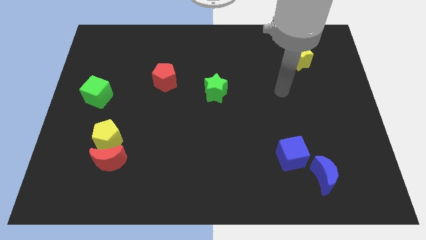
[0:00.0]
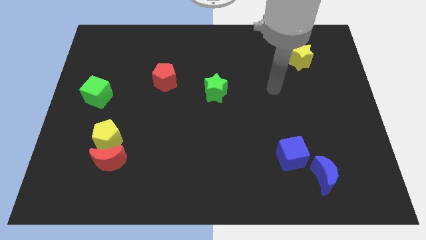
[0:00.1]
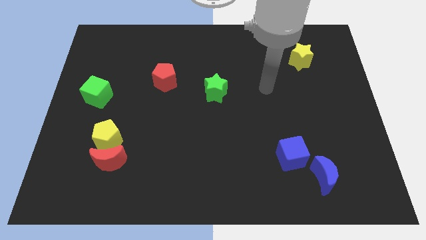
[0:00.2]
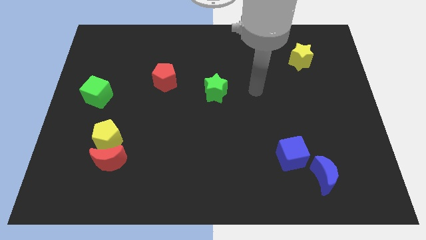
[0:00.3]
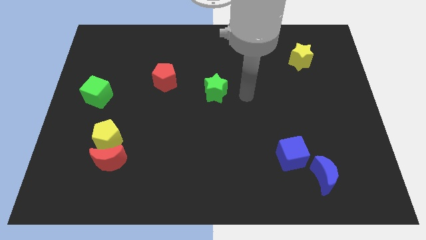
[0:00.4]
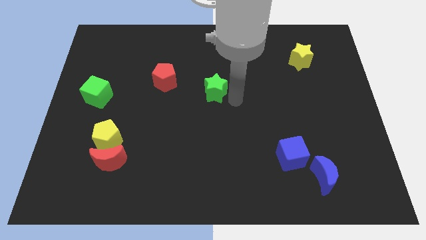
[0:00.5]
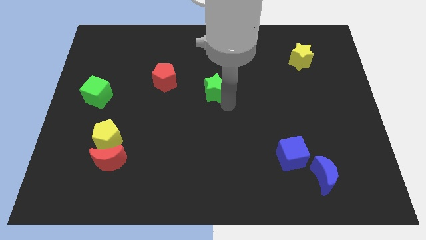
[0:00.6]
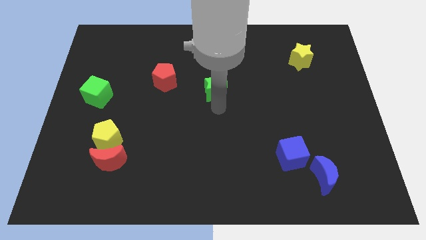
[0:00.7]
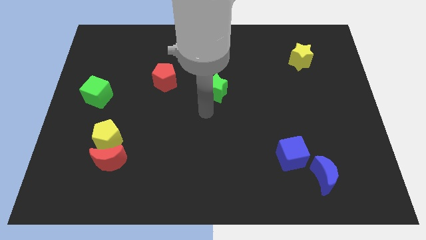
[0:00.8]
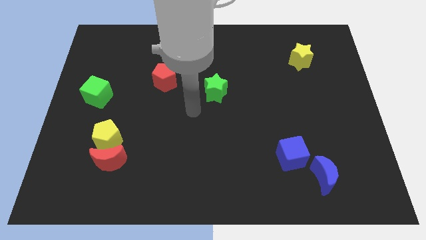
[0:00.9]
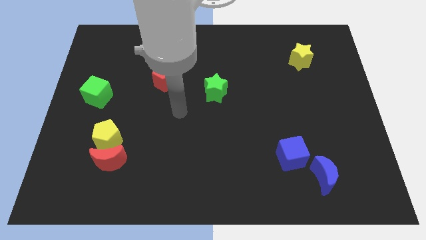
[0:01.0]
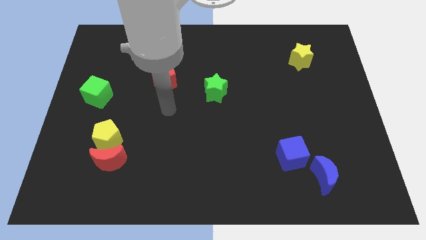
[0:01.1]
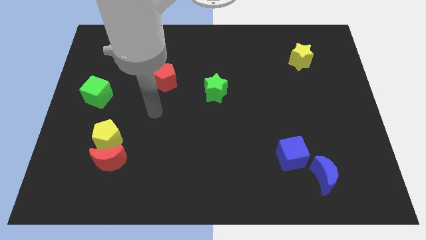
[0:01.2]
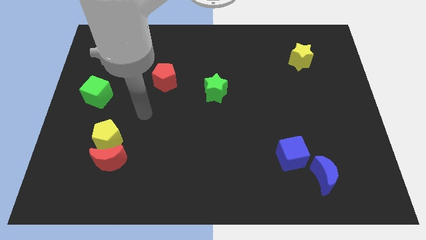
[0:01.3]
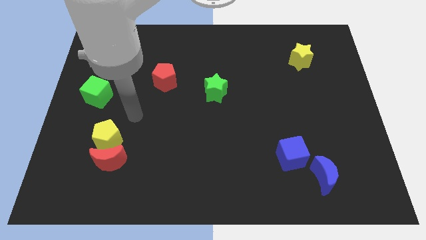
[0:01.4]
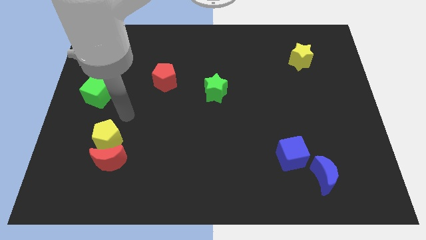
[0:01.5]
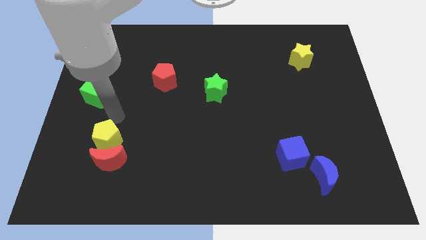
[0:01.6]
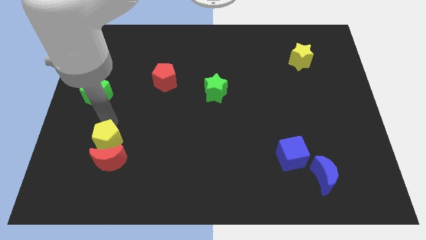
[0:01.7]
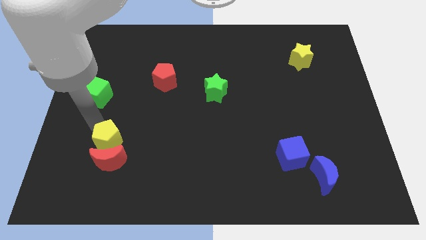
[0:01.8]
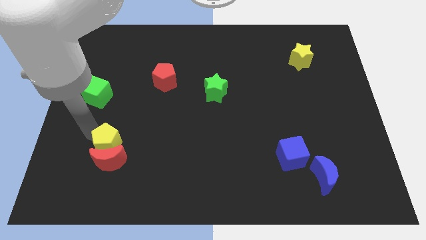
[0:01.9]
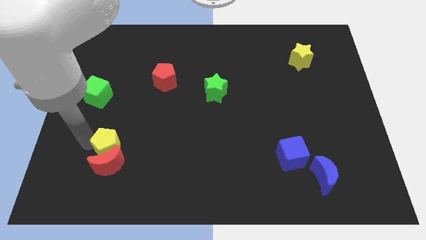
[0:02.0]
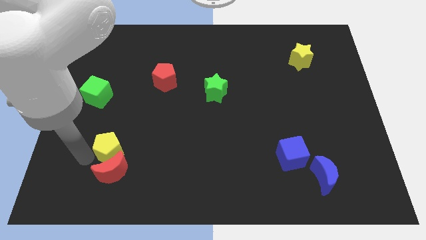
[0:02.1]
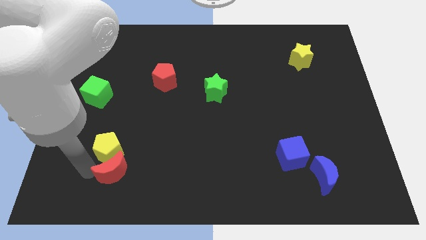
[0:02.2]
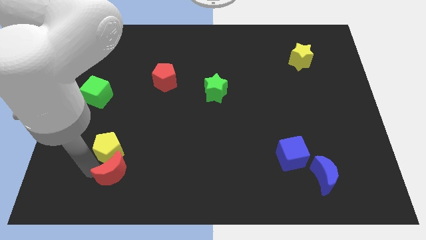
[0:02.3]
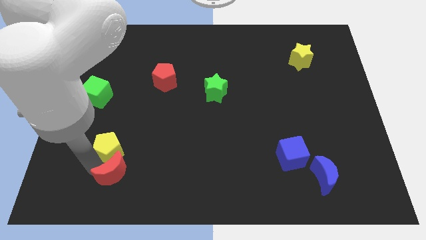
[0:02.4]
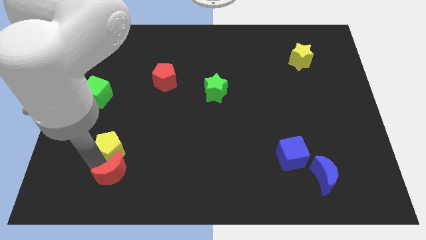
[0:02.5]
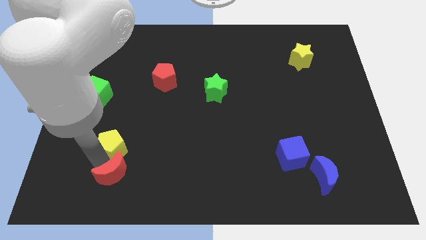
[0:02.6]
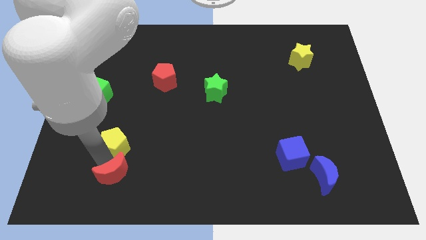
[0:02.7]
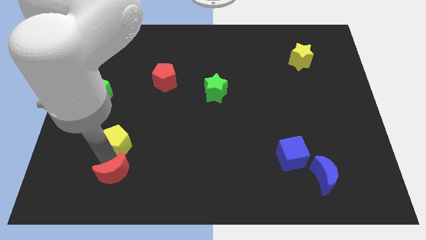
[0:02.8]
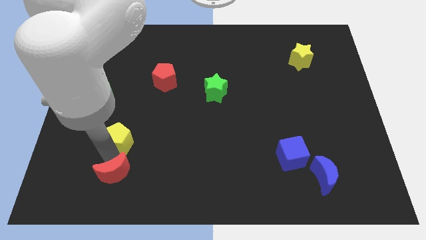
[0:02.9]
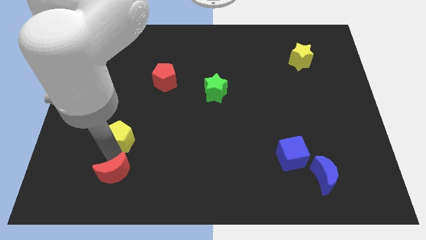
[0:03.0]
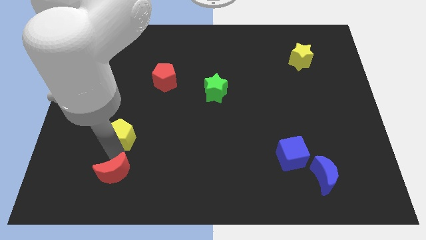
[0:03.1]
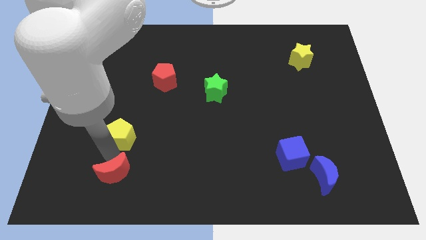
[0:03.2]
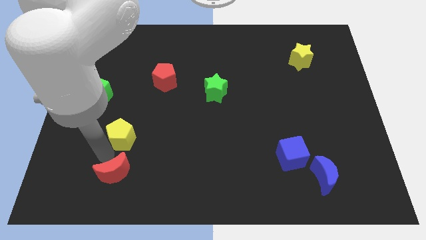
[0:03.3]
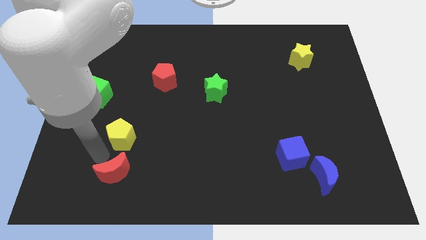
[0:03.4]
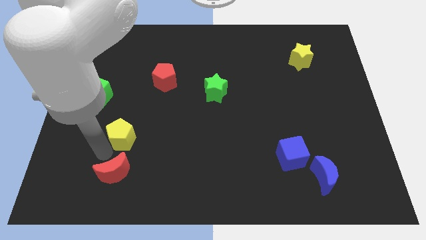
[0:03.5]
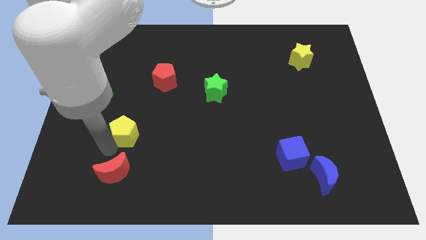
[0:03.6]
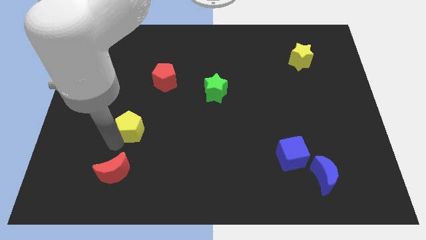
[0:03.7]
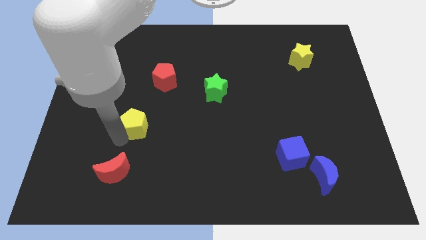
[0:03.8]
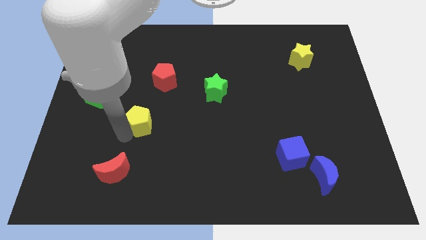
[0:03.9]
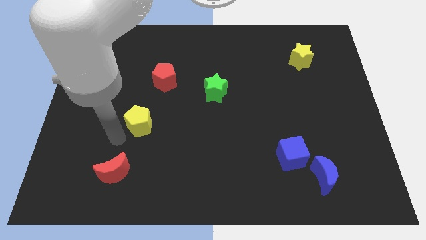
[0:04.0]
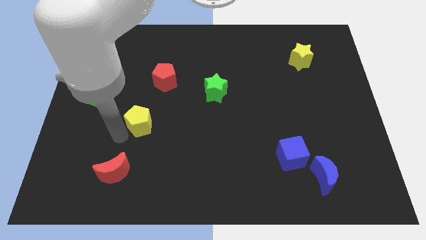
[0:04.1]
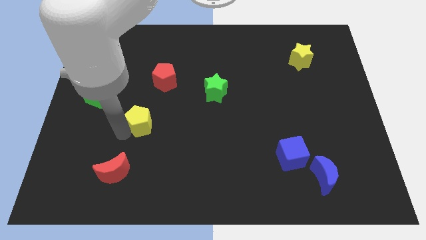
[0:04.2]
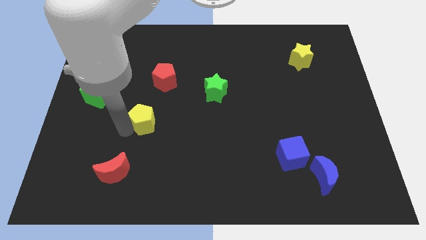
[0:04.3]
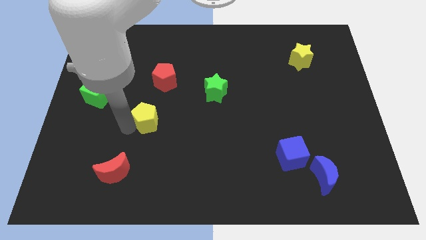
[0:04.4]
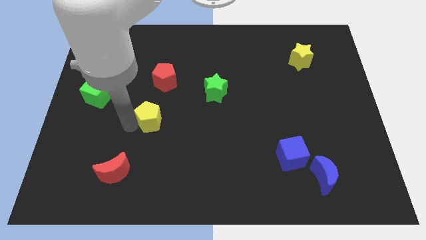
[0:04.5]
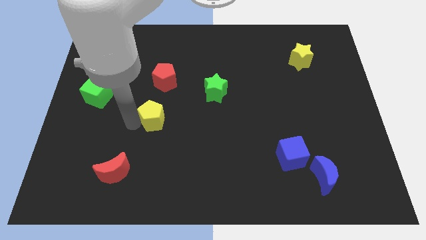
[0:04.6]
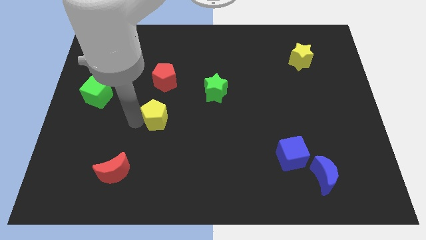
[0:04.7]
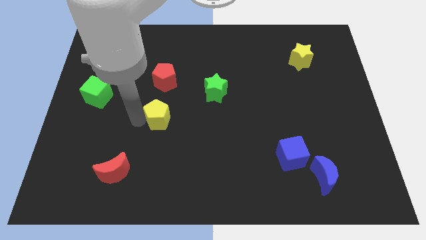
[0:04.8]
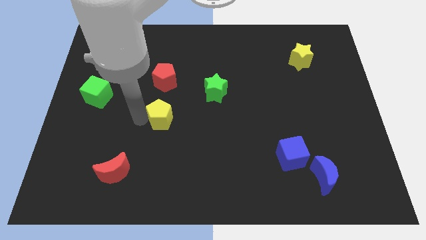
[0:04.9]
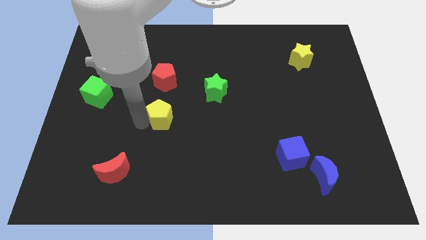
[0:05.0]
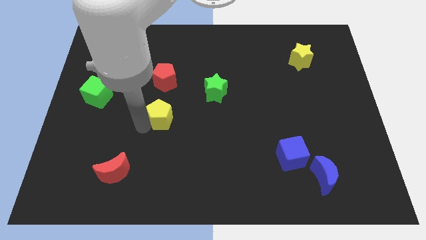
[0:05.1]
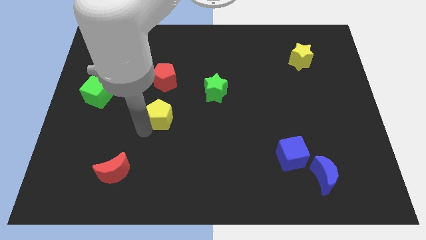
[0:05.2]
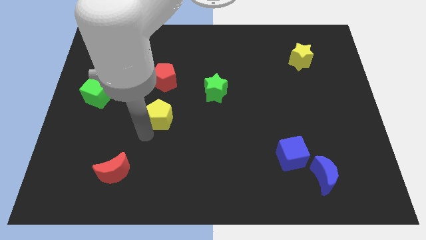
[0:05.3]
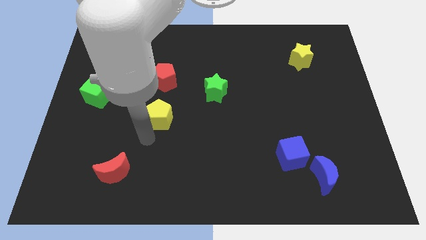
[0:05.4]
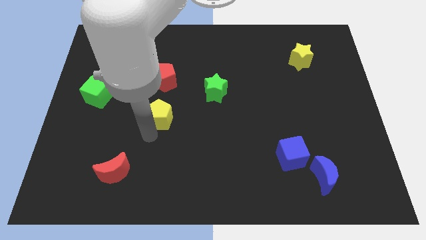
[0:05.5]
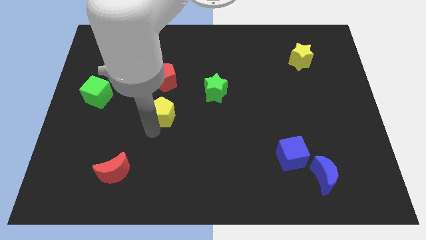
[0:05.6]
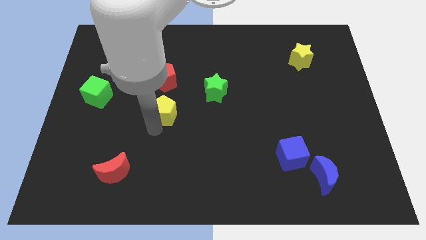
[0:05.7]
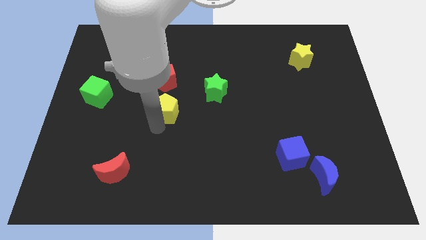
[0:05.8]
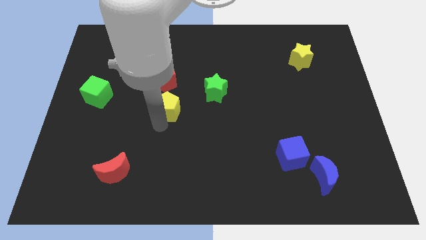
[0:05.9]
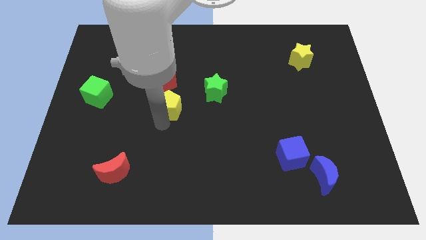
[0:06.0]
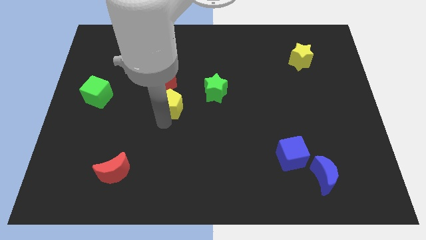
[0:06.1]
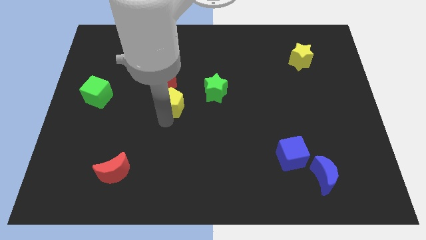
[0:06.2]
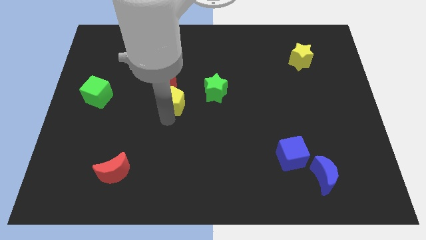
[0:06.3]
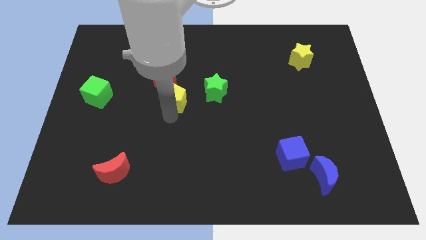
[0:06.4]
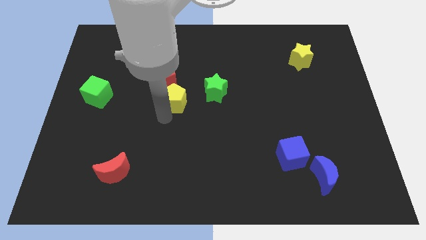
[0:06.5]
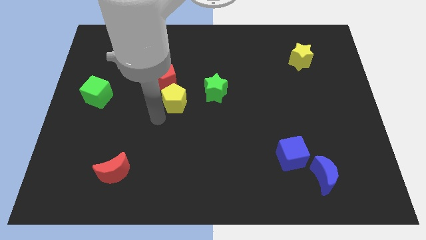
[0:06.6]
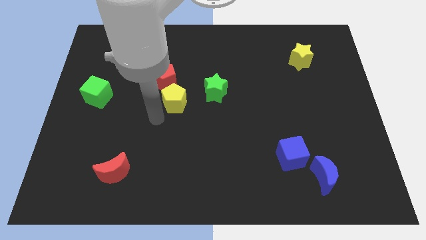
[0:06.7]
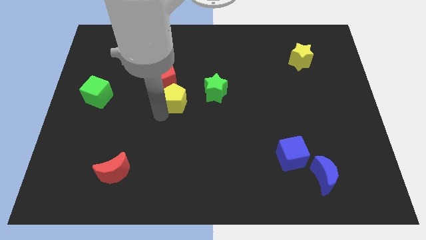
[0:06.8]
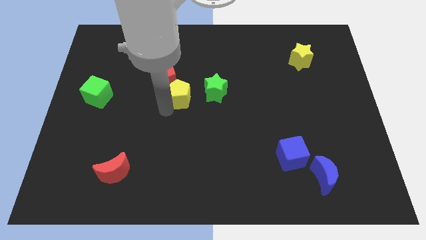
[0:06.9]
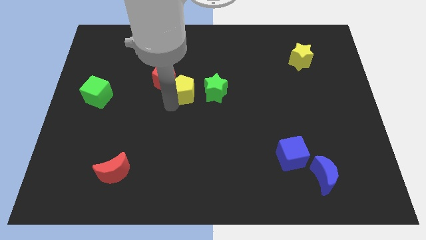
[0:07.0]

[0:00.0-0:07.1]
slide the yellow pentagon upwards and to the right

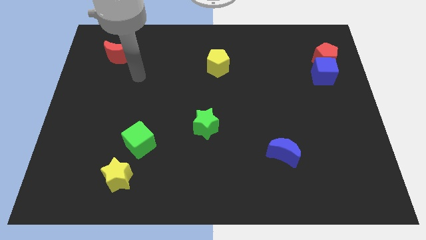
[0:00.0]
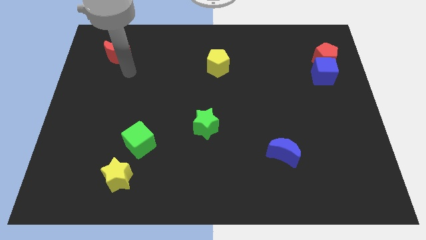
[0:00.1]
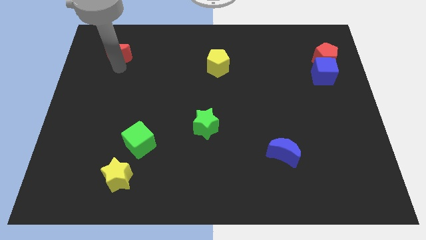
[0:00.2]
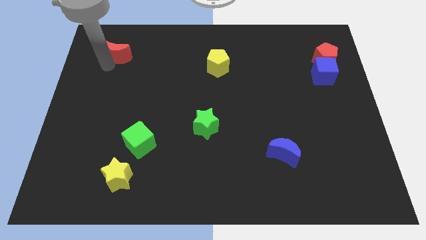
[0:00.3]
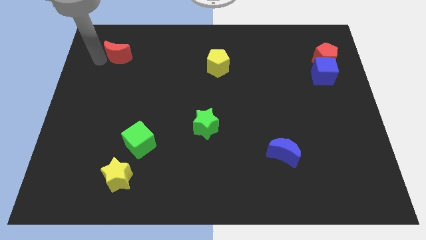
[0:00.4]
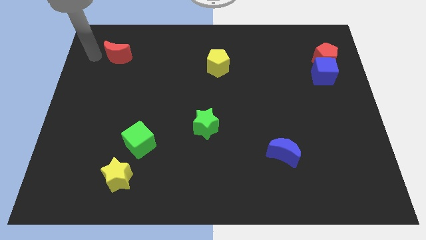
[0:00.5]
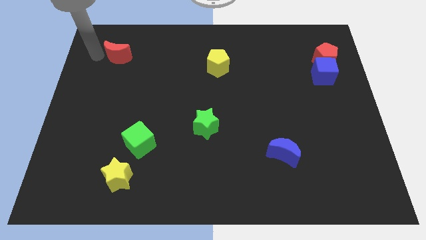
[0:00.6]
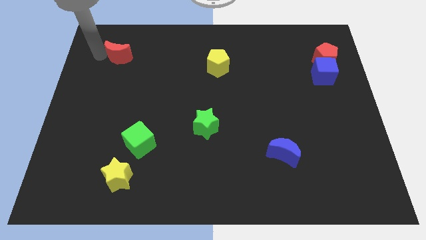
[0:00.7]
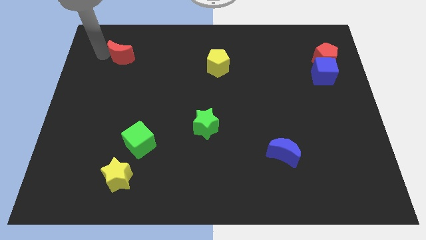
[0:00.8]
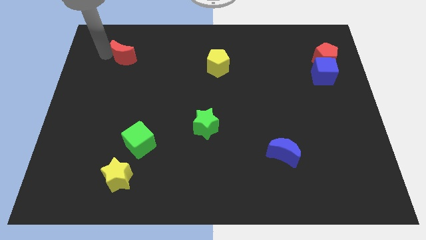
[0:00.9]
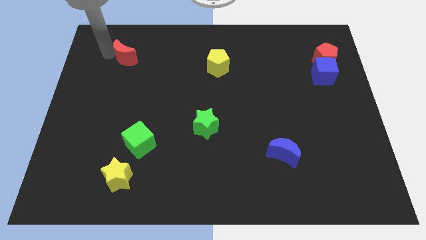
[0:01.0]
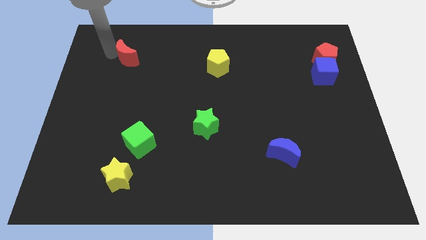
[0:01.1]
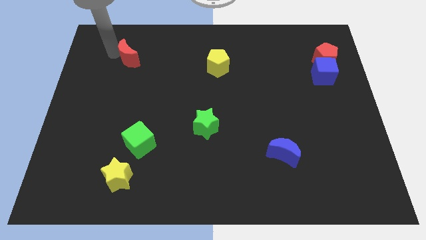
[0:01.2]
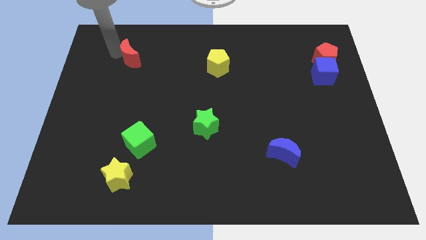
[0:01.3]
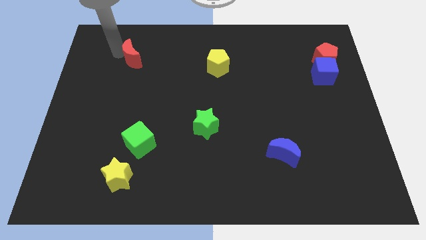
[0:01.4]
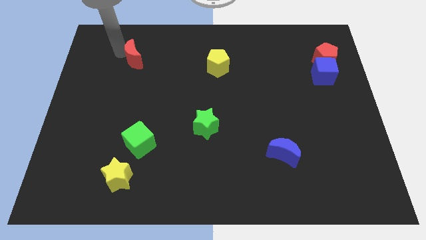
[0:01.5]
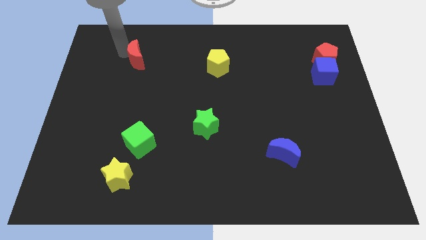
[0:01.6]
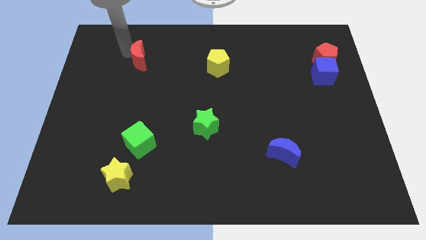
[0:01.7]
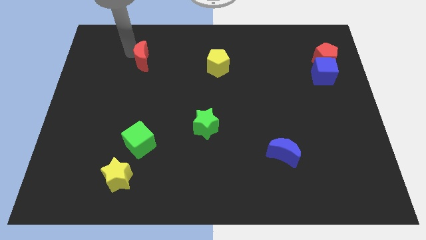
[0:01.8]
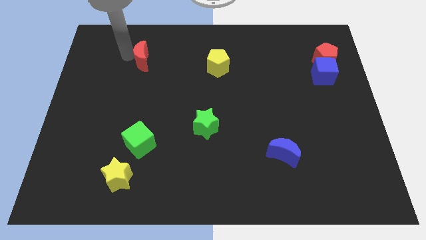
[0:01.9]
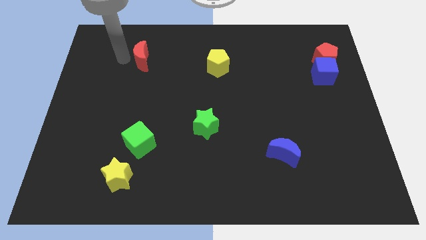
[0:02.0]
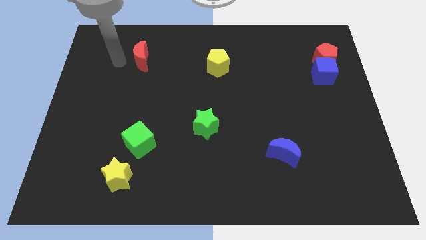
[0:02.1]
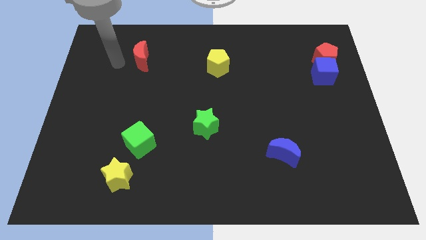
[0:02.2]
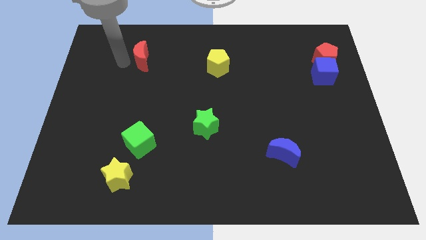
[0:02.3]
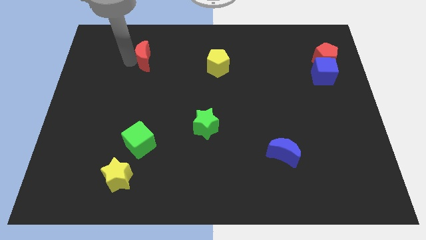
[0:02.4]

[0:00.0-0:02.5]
slide the red moon a little to the right
